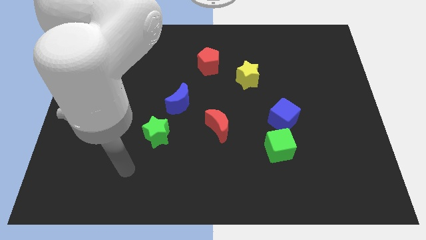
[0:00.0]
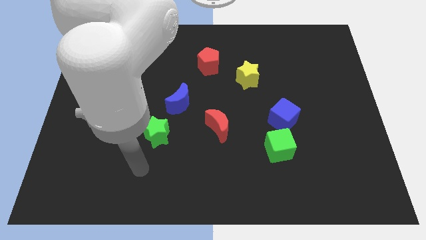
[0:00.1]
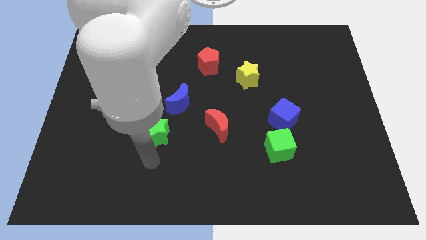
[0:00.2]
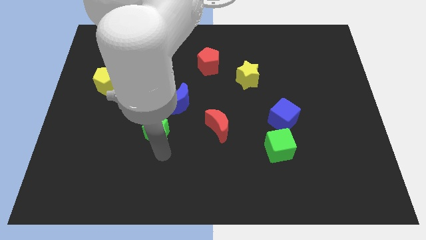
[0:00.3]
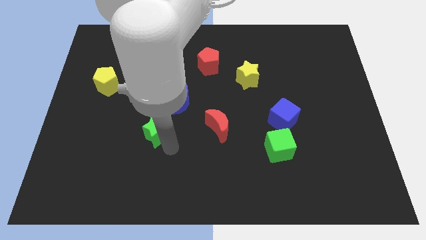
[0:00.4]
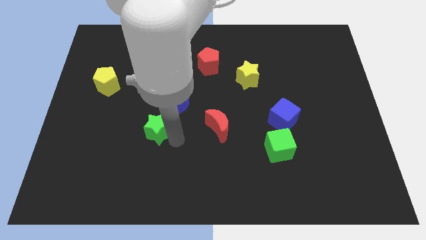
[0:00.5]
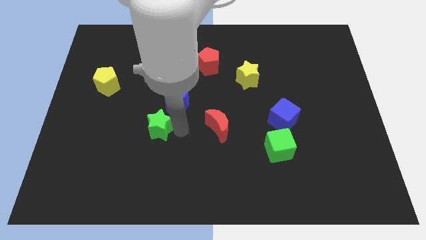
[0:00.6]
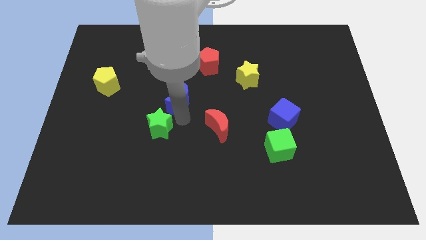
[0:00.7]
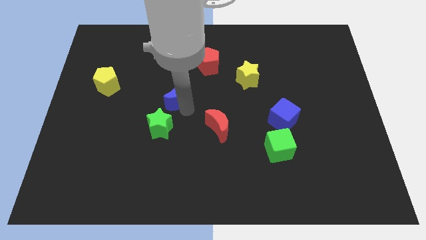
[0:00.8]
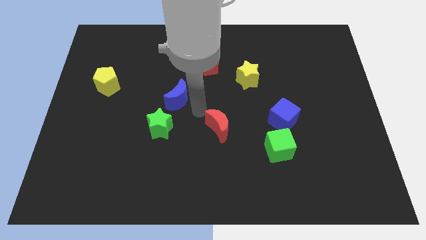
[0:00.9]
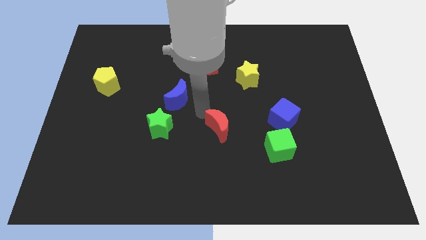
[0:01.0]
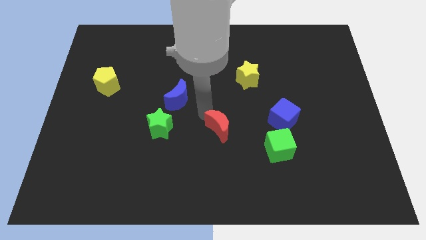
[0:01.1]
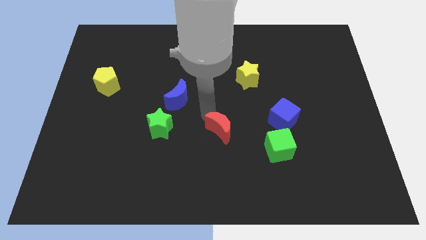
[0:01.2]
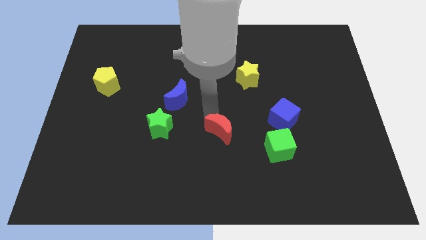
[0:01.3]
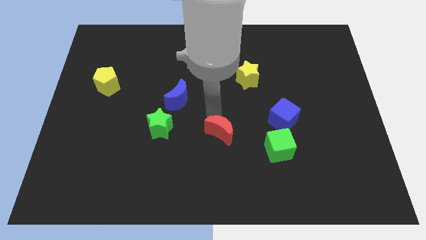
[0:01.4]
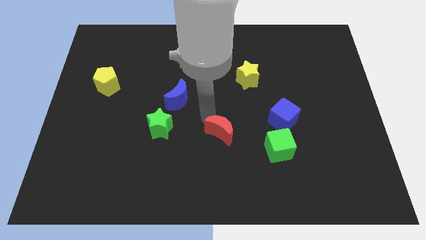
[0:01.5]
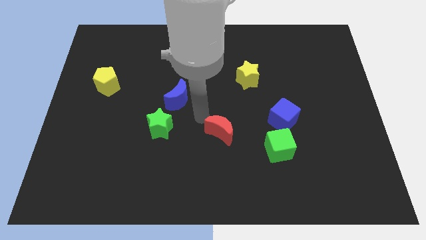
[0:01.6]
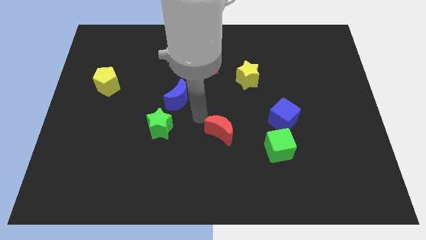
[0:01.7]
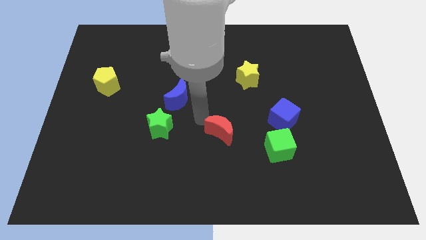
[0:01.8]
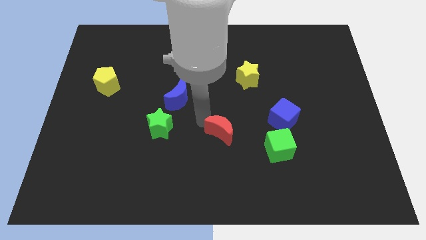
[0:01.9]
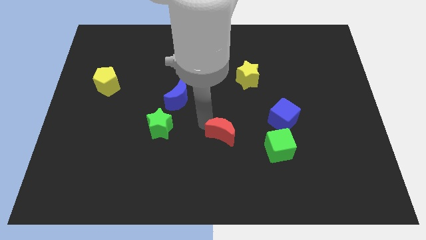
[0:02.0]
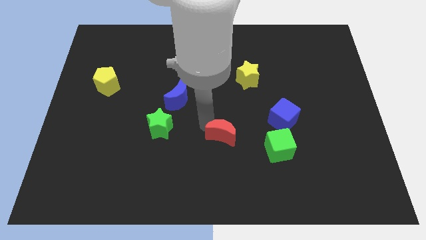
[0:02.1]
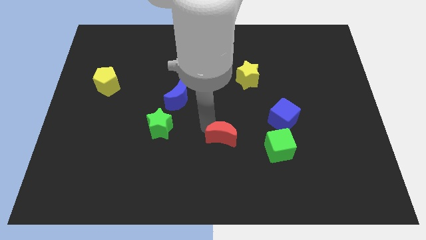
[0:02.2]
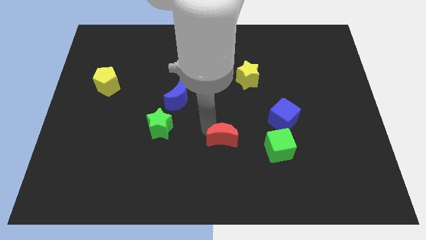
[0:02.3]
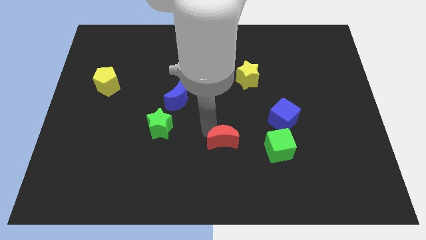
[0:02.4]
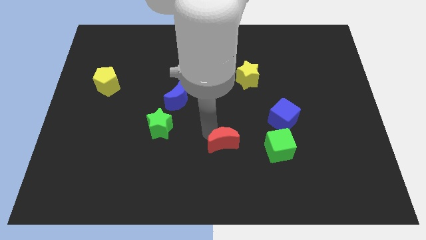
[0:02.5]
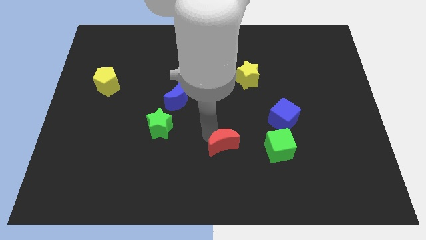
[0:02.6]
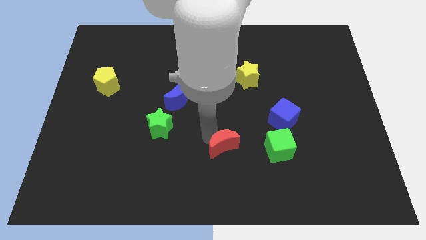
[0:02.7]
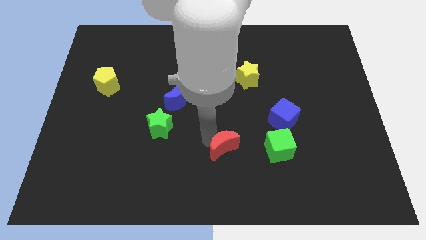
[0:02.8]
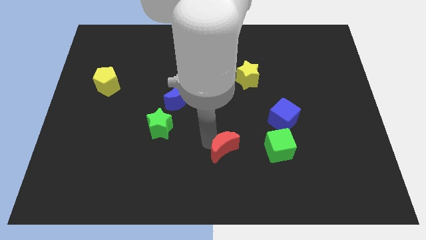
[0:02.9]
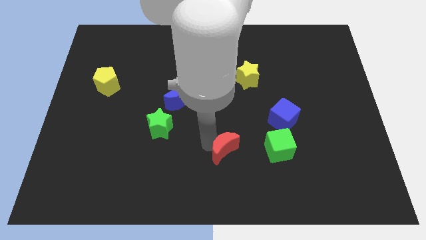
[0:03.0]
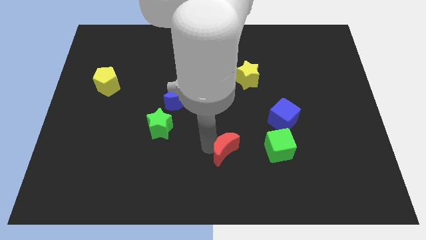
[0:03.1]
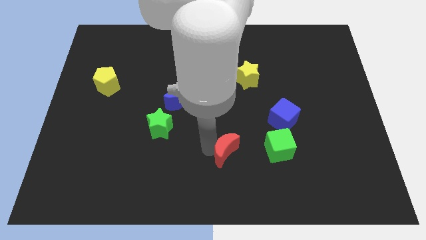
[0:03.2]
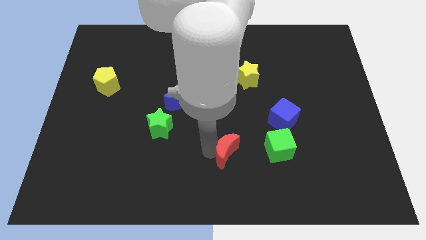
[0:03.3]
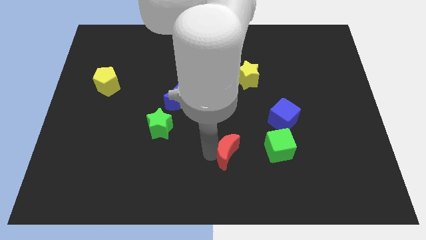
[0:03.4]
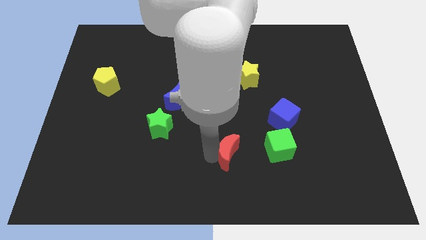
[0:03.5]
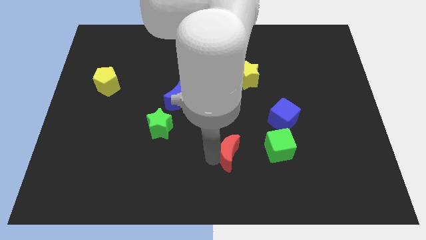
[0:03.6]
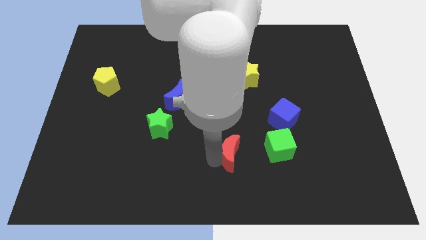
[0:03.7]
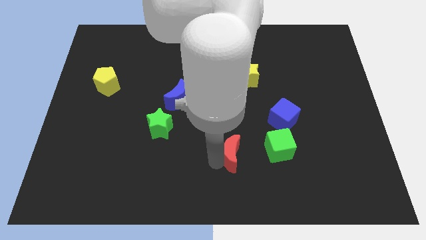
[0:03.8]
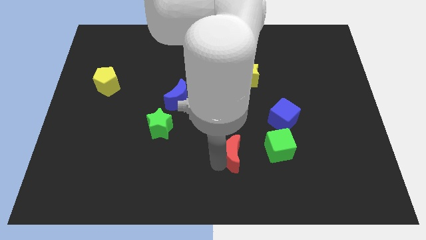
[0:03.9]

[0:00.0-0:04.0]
push the red moon diagonally downwards and to the right slightly

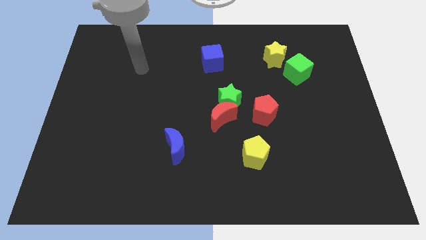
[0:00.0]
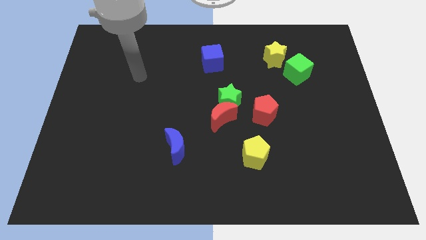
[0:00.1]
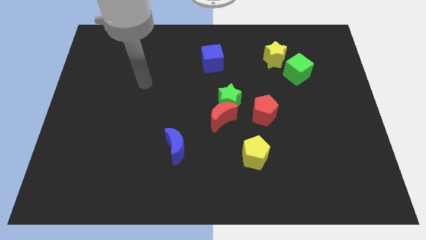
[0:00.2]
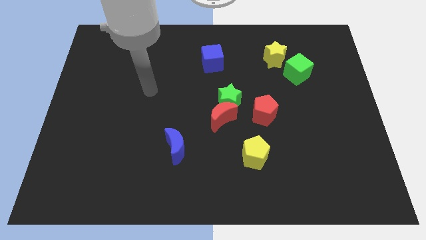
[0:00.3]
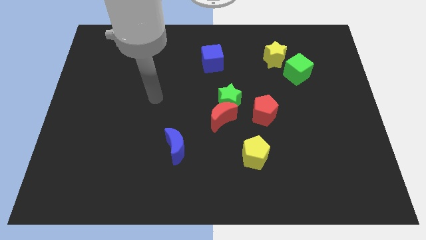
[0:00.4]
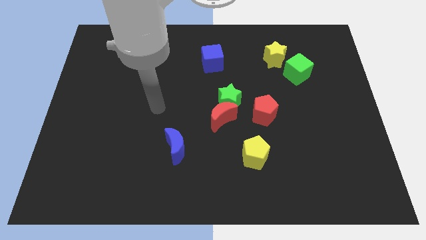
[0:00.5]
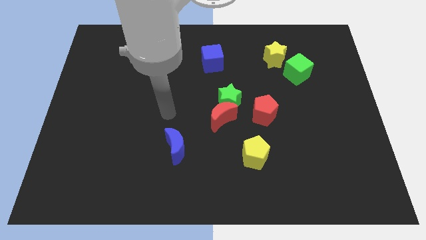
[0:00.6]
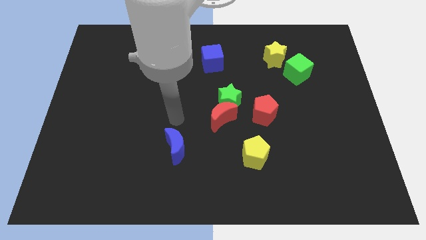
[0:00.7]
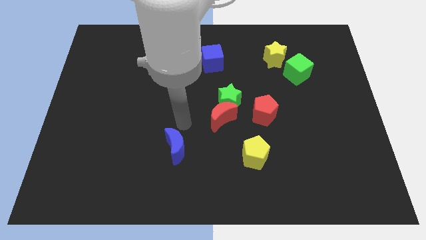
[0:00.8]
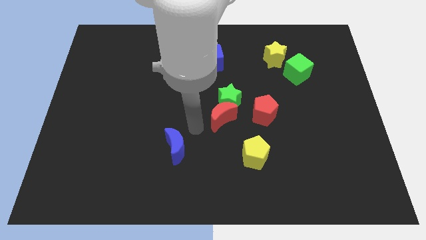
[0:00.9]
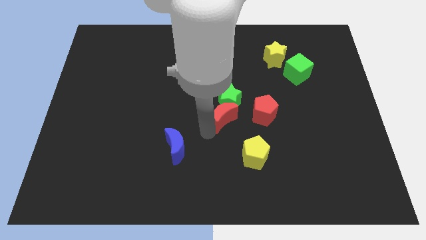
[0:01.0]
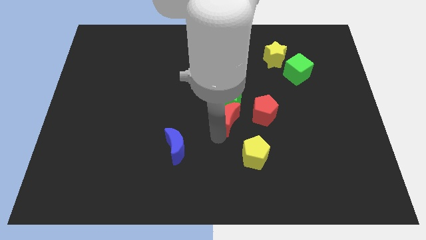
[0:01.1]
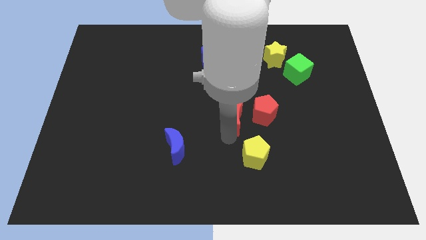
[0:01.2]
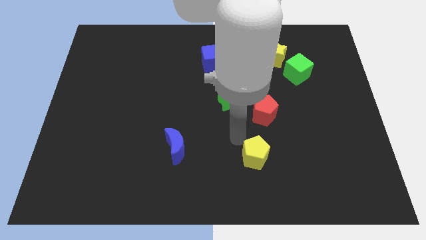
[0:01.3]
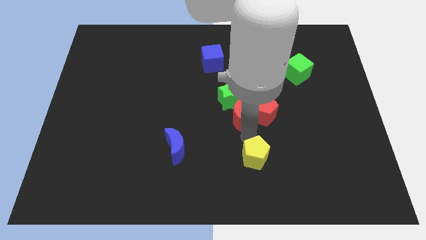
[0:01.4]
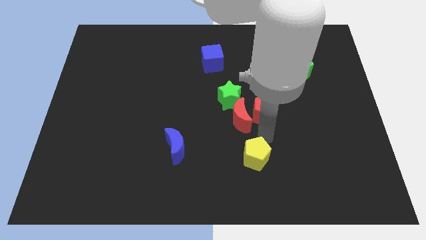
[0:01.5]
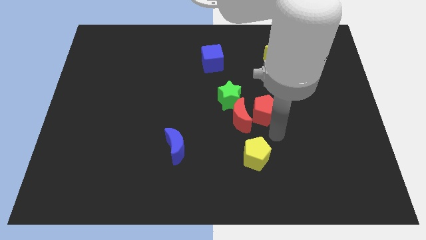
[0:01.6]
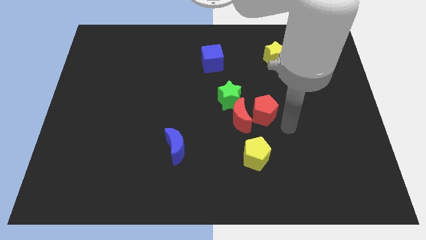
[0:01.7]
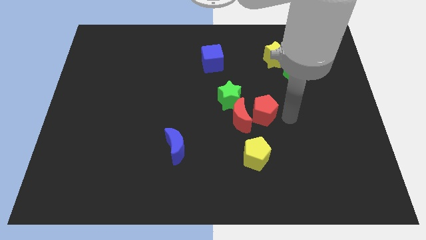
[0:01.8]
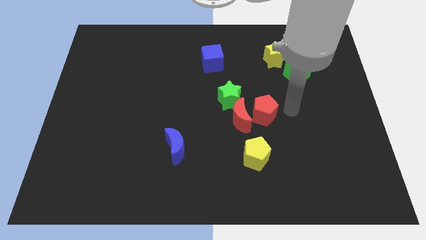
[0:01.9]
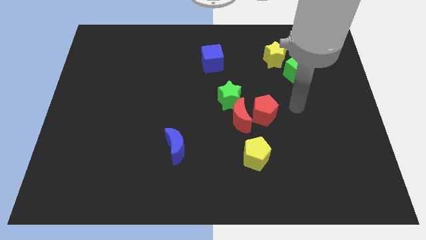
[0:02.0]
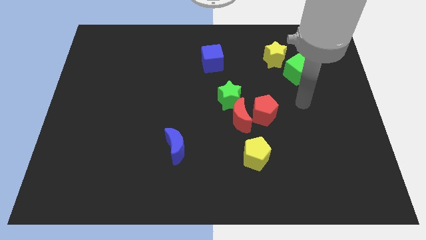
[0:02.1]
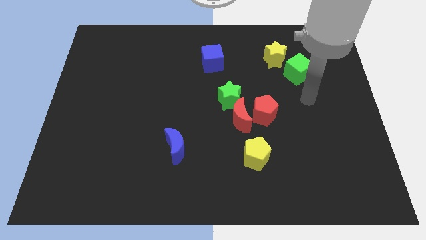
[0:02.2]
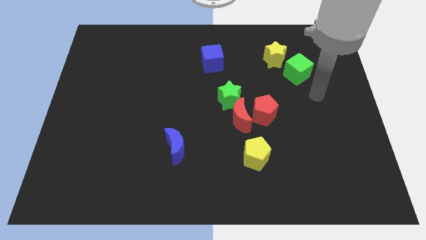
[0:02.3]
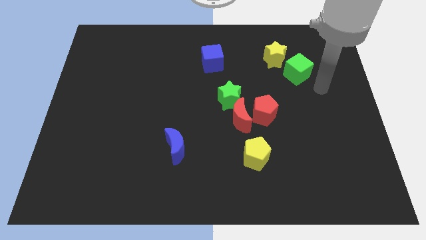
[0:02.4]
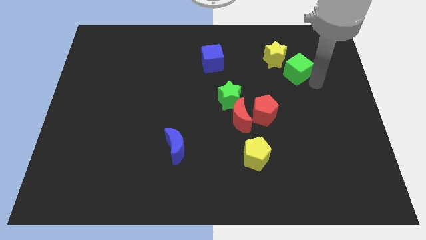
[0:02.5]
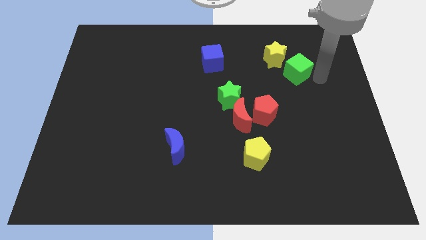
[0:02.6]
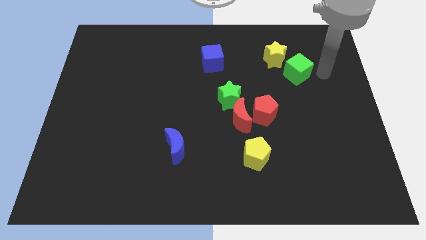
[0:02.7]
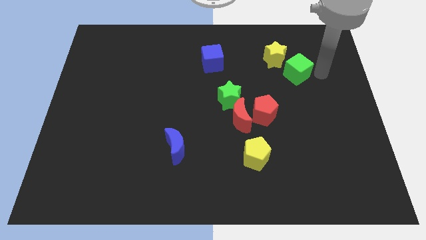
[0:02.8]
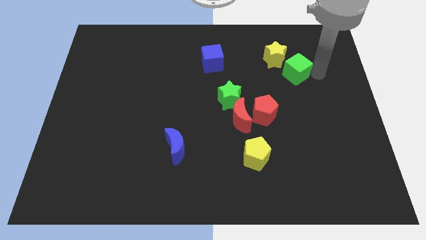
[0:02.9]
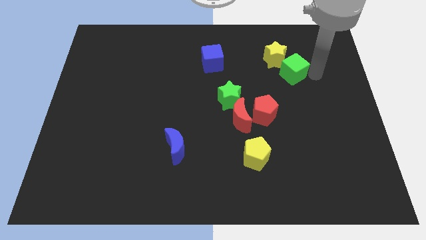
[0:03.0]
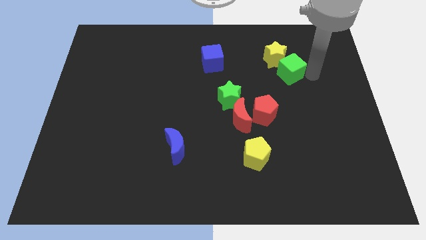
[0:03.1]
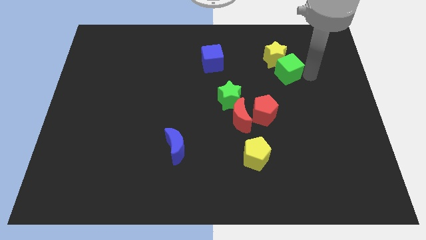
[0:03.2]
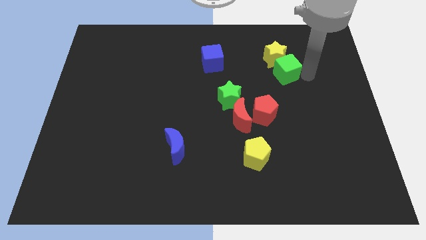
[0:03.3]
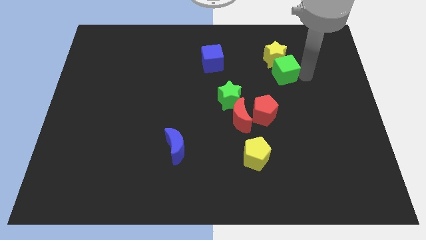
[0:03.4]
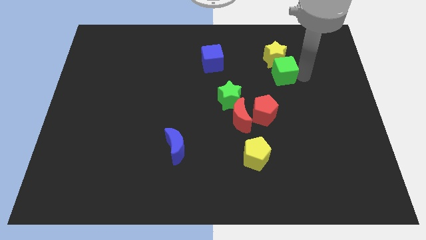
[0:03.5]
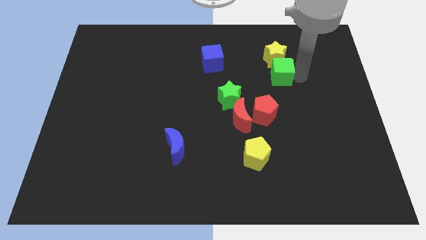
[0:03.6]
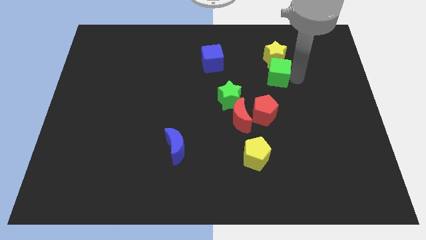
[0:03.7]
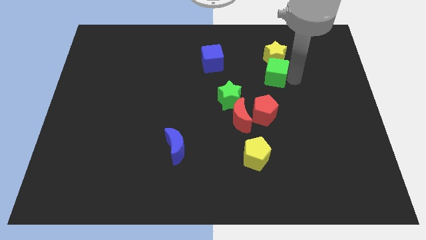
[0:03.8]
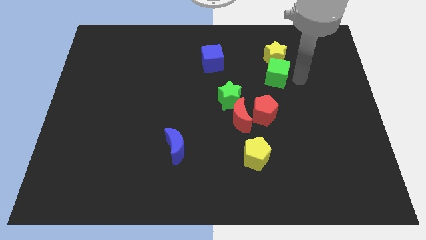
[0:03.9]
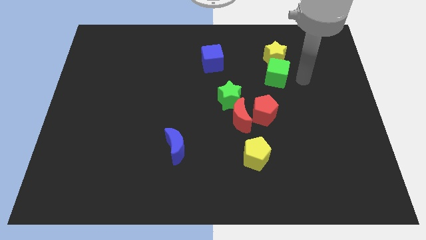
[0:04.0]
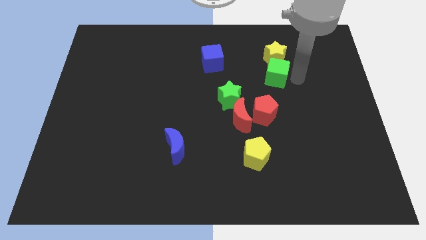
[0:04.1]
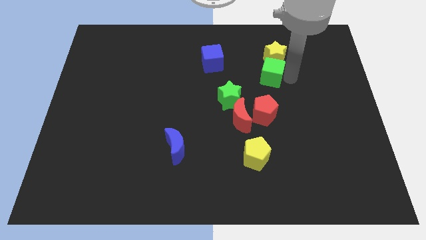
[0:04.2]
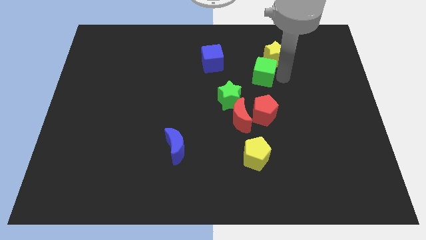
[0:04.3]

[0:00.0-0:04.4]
slide the green cube left a little
